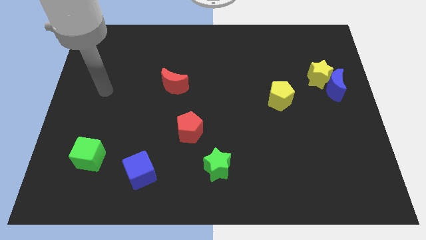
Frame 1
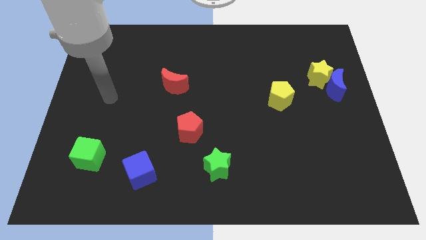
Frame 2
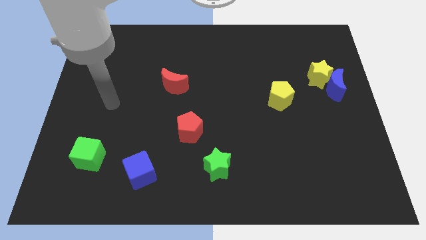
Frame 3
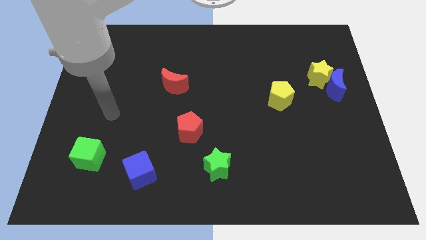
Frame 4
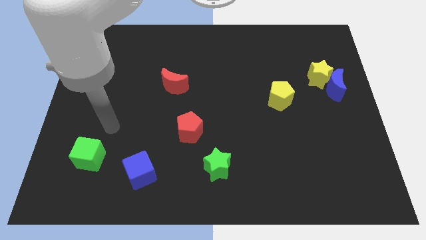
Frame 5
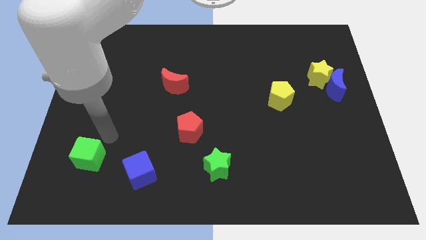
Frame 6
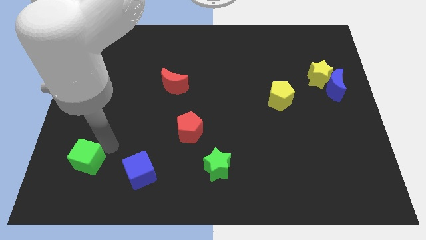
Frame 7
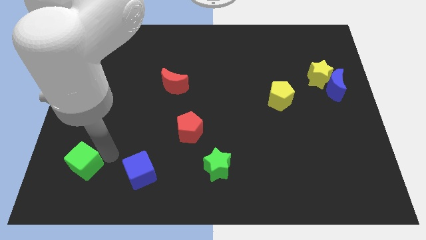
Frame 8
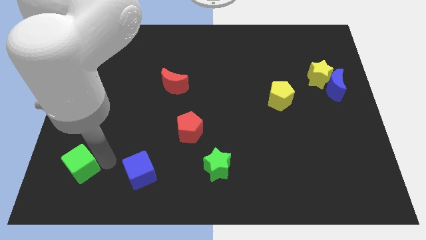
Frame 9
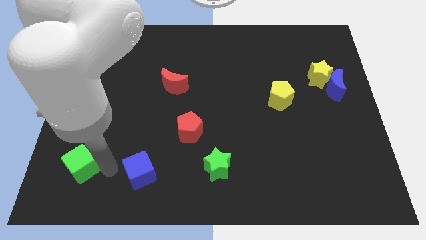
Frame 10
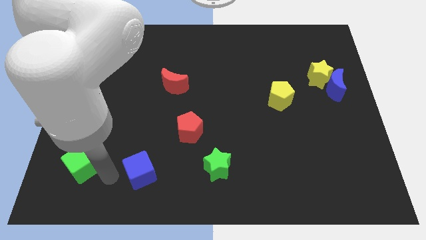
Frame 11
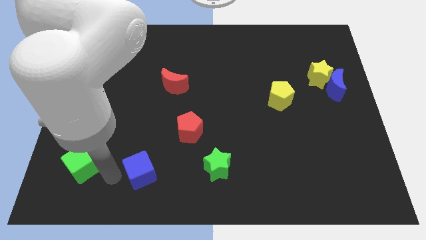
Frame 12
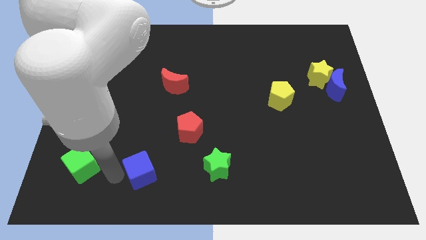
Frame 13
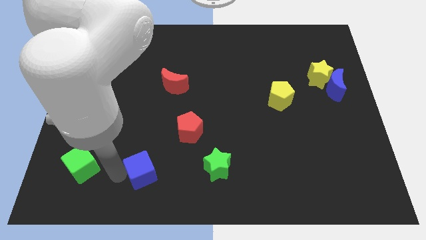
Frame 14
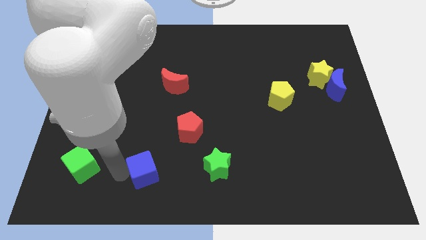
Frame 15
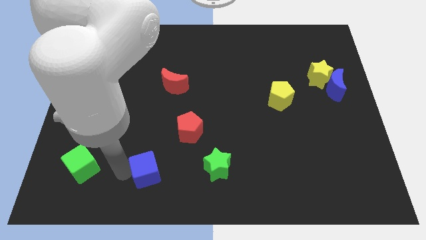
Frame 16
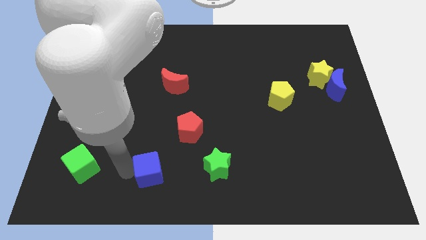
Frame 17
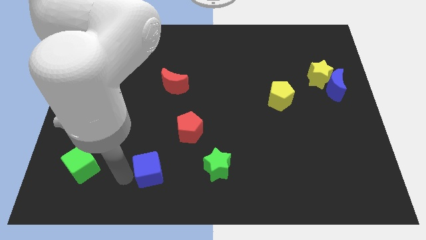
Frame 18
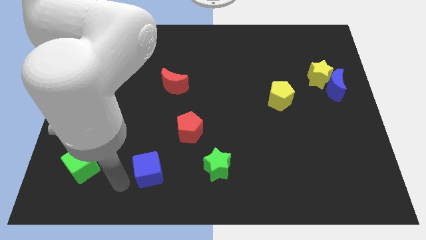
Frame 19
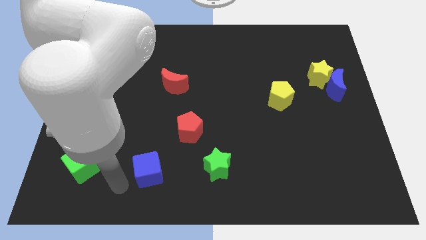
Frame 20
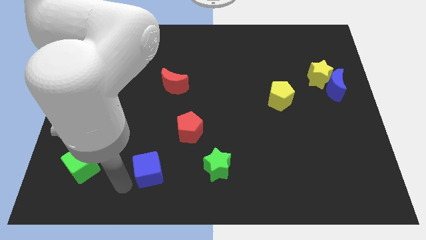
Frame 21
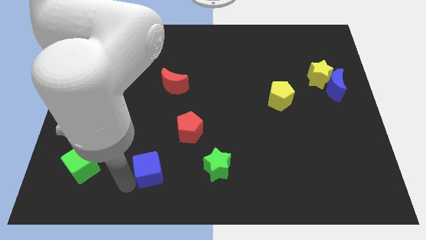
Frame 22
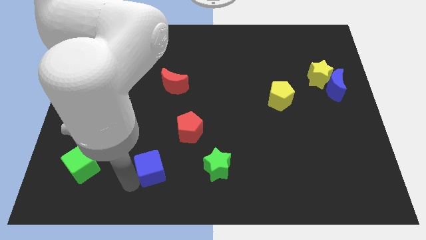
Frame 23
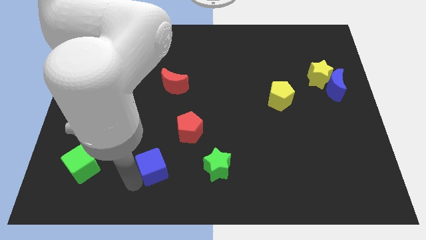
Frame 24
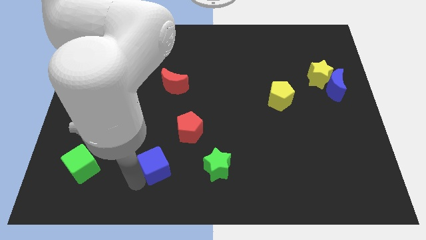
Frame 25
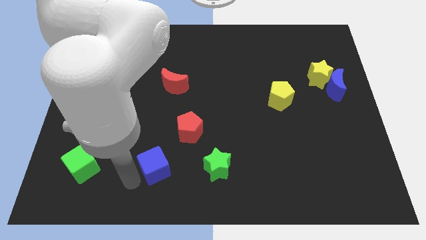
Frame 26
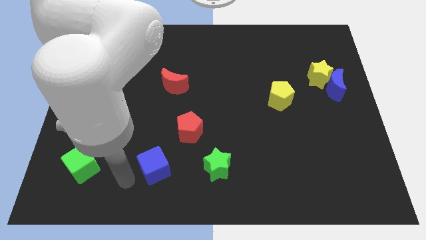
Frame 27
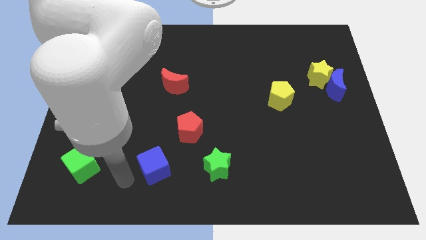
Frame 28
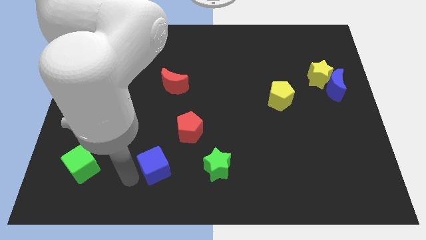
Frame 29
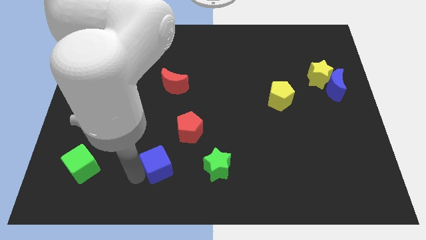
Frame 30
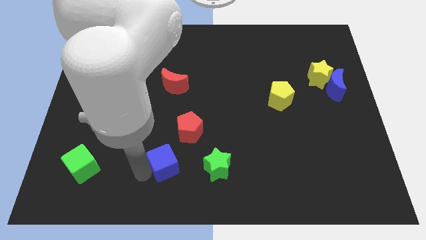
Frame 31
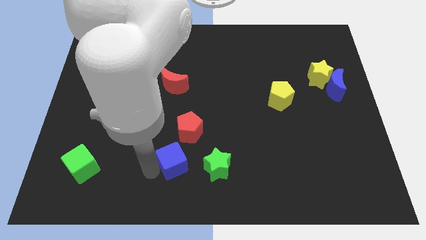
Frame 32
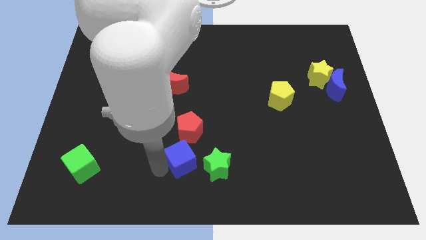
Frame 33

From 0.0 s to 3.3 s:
move the blue cube somewhat upwards and then to the right

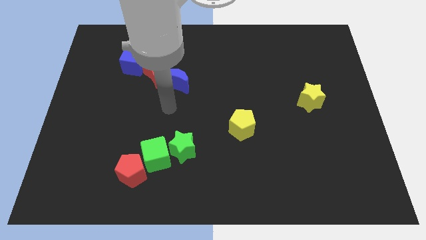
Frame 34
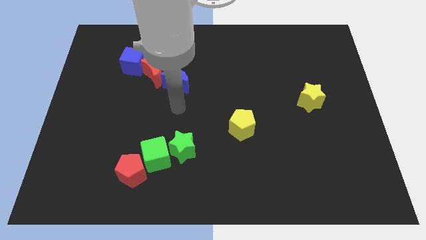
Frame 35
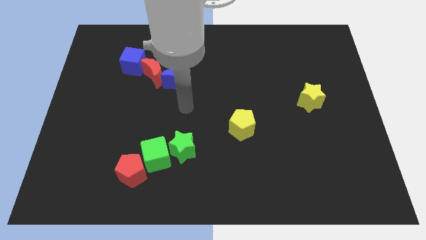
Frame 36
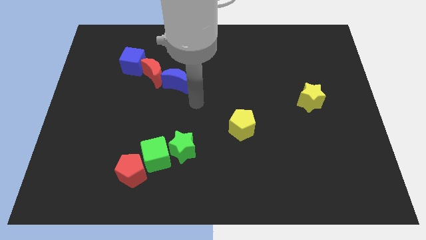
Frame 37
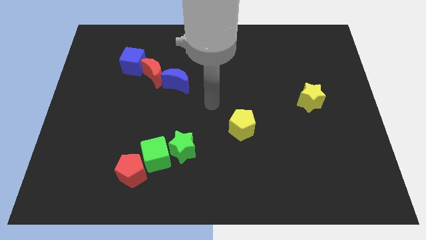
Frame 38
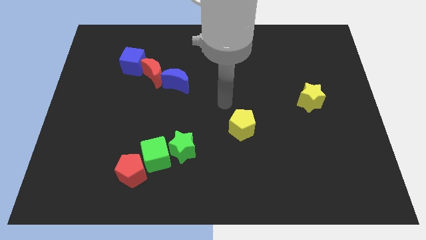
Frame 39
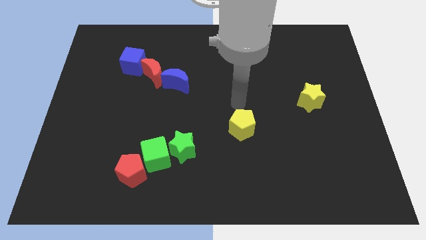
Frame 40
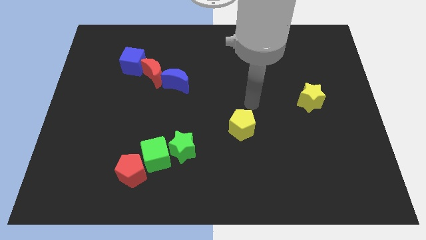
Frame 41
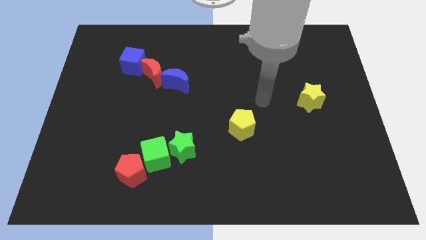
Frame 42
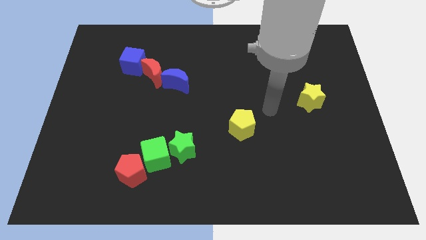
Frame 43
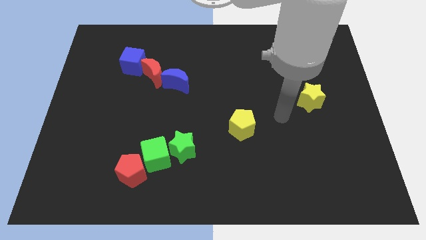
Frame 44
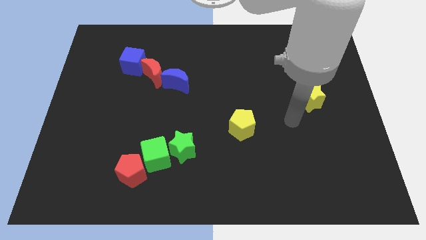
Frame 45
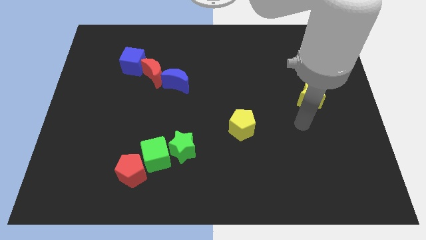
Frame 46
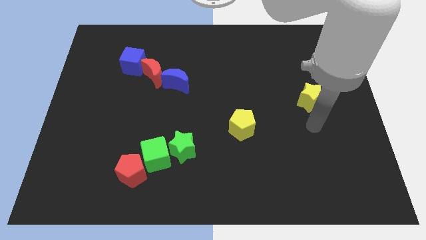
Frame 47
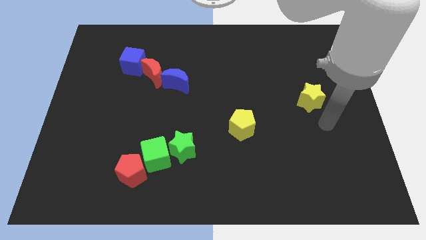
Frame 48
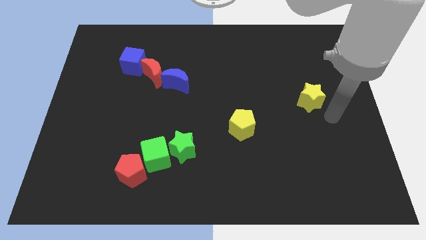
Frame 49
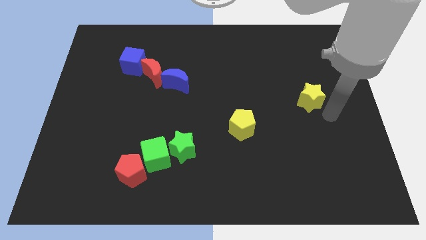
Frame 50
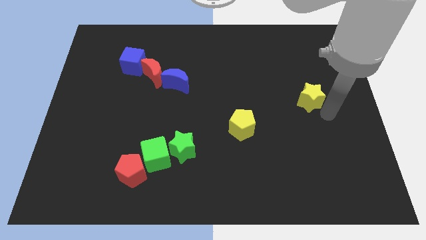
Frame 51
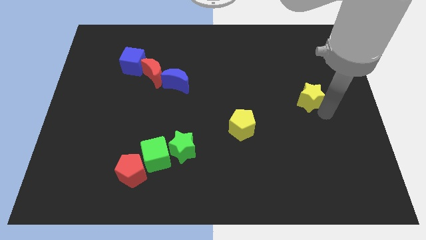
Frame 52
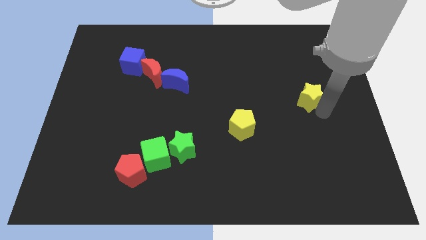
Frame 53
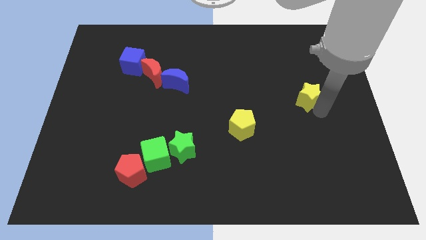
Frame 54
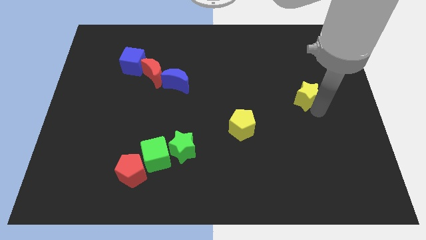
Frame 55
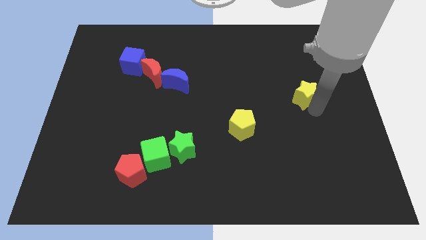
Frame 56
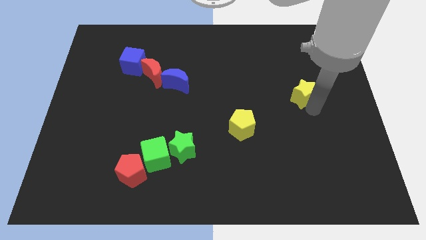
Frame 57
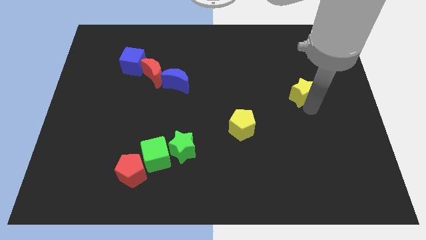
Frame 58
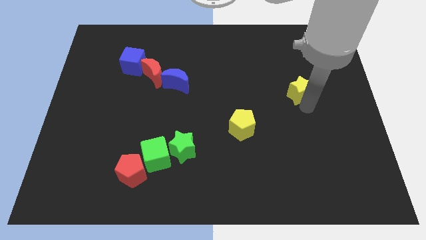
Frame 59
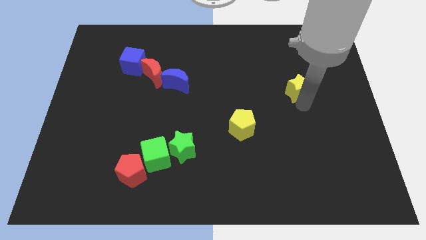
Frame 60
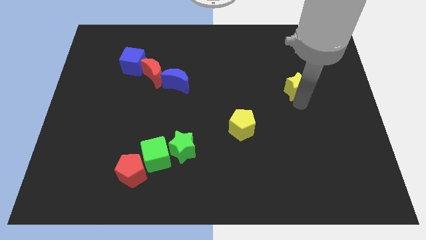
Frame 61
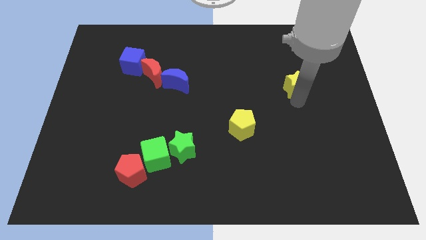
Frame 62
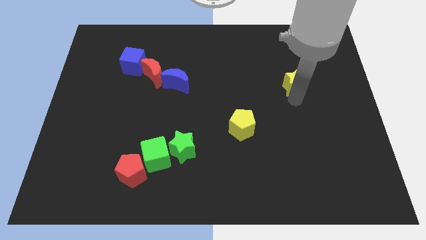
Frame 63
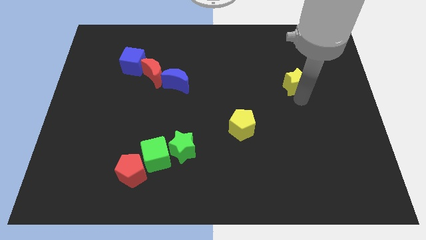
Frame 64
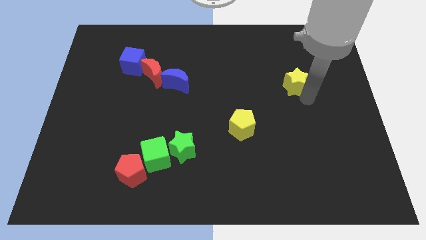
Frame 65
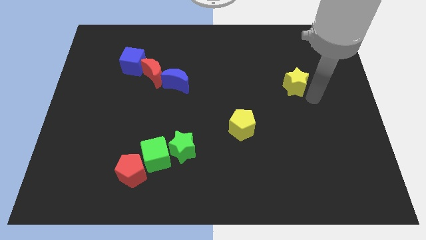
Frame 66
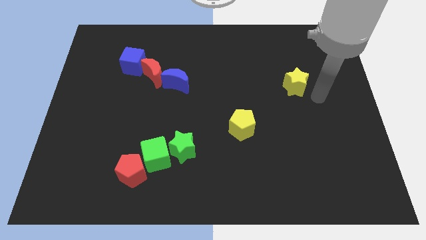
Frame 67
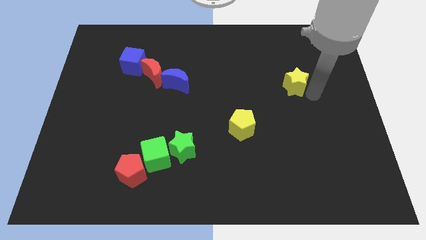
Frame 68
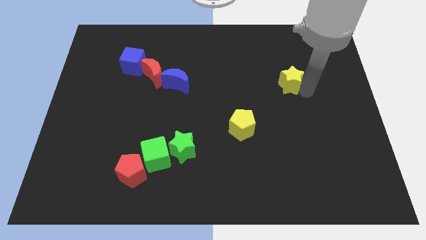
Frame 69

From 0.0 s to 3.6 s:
slide the yellow star upwards and to the left diagonally a bit

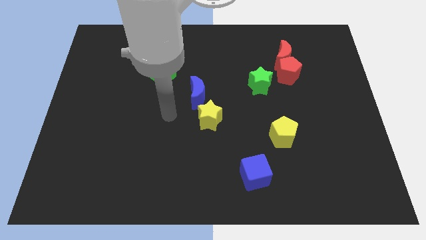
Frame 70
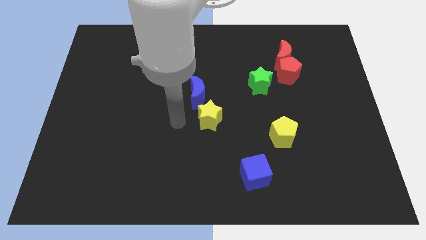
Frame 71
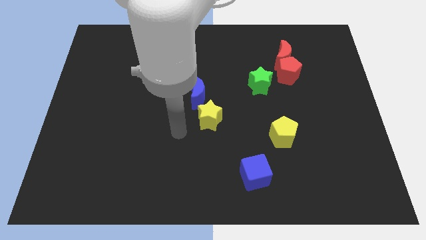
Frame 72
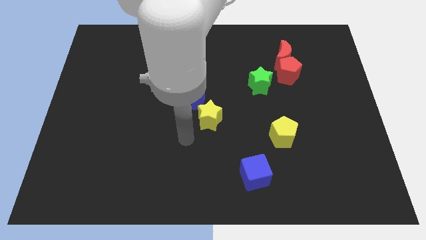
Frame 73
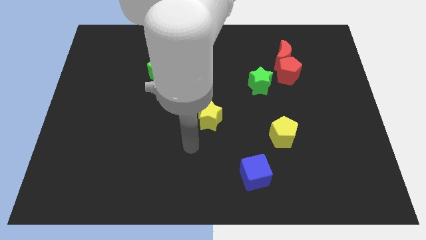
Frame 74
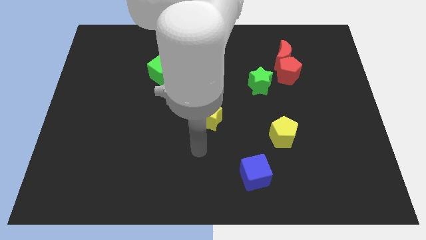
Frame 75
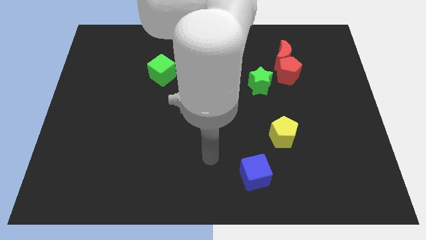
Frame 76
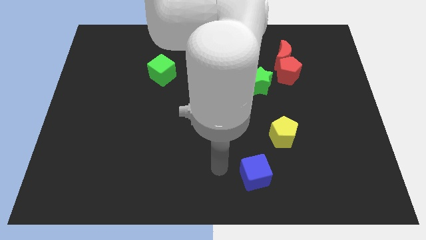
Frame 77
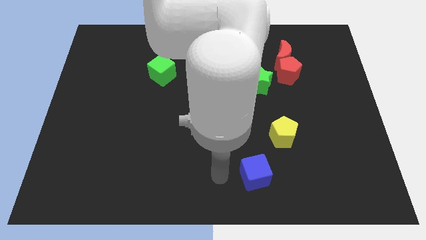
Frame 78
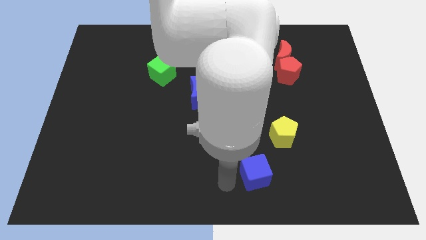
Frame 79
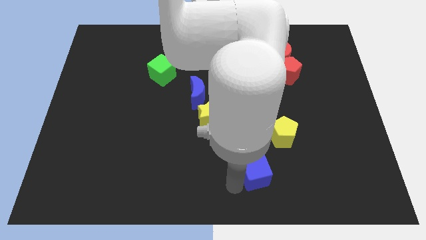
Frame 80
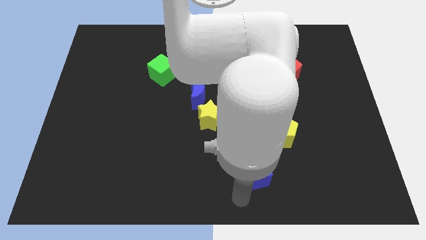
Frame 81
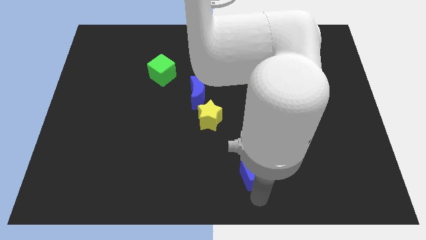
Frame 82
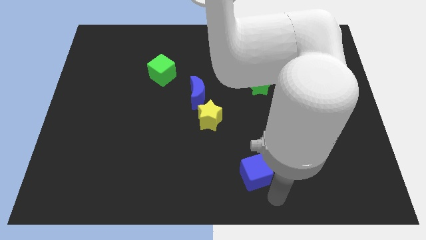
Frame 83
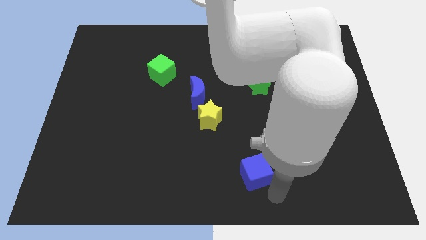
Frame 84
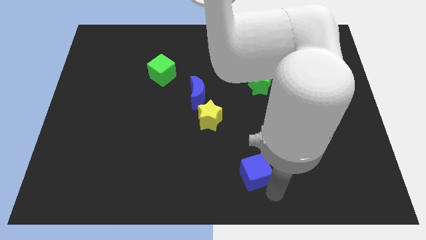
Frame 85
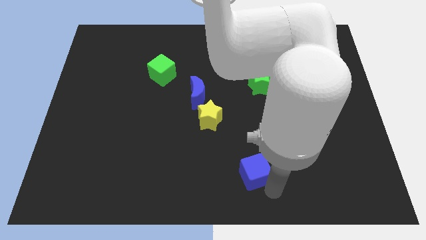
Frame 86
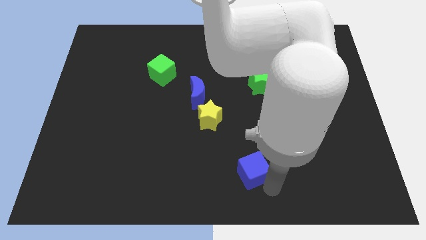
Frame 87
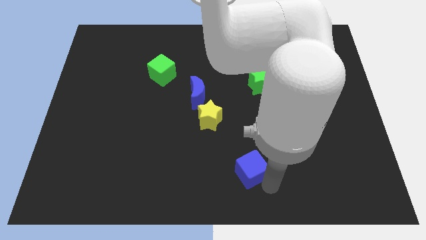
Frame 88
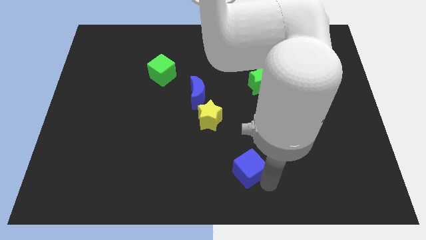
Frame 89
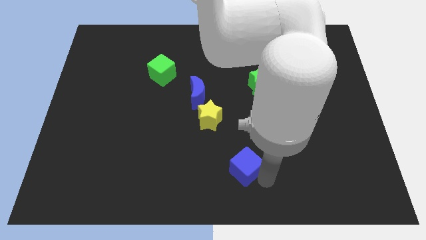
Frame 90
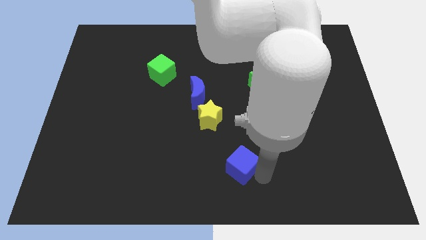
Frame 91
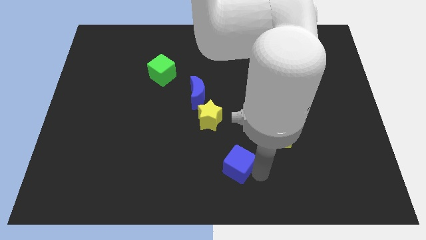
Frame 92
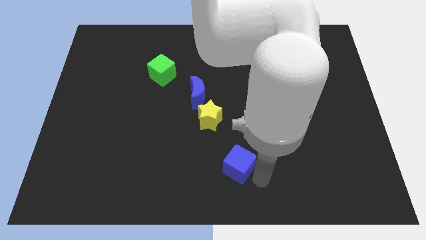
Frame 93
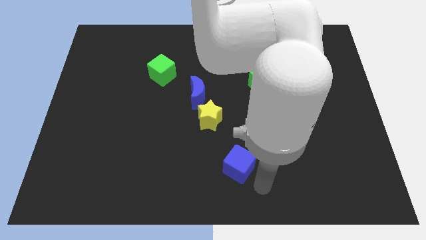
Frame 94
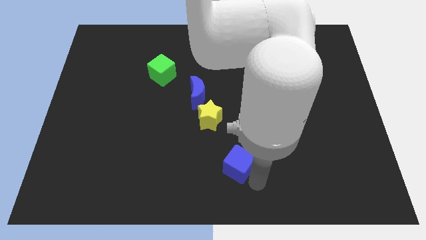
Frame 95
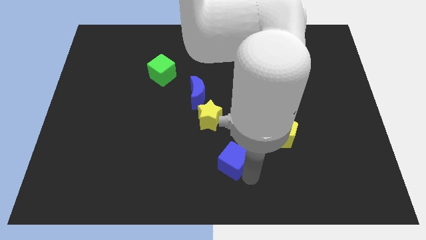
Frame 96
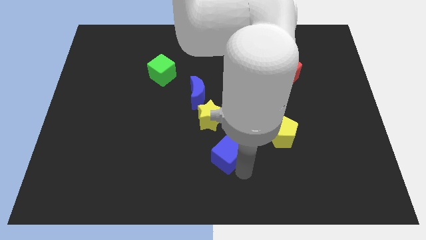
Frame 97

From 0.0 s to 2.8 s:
slightly slide the blue cube upwards and to the left diagonally
